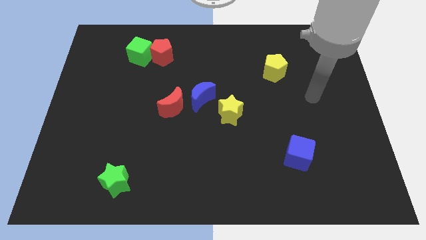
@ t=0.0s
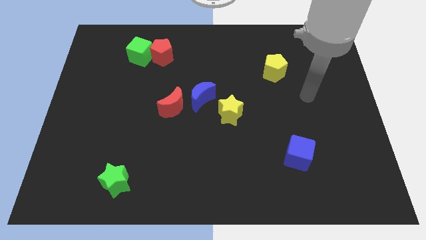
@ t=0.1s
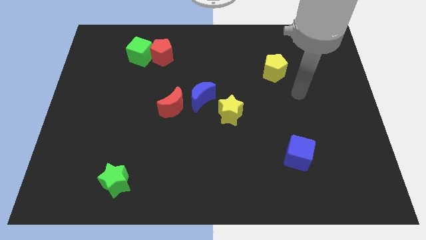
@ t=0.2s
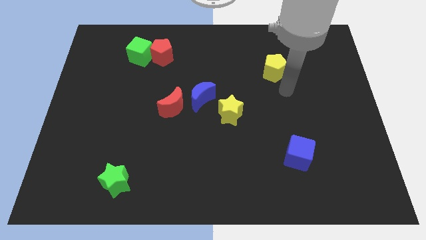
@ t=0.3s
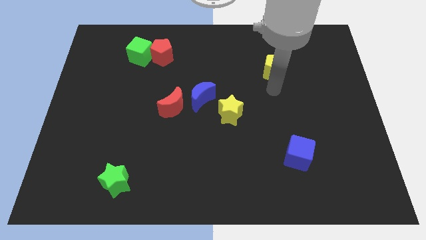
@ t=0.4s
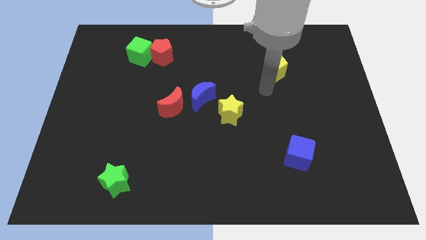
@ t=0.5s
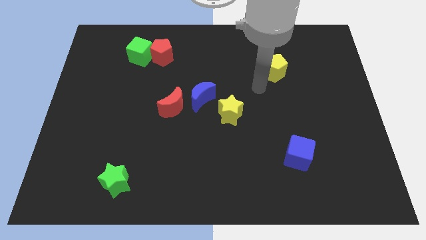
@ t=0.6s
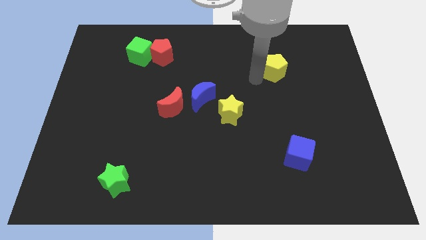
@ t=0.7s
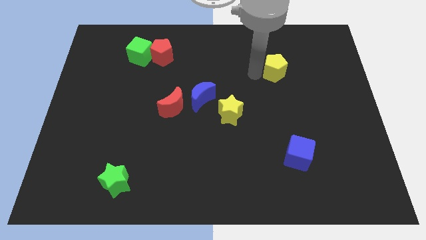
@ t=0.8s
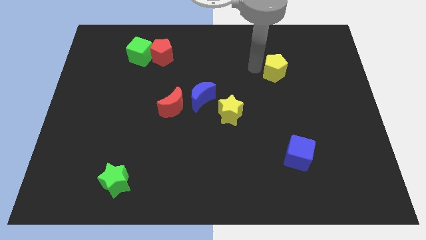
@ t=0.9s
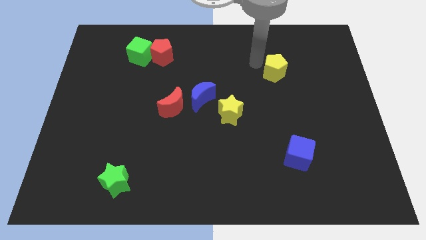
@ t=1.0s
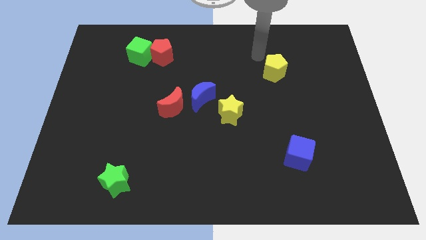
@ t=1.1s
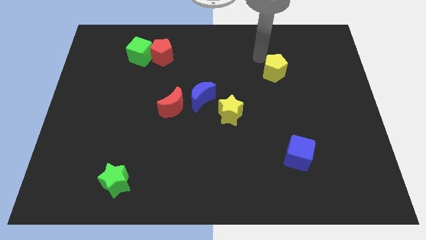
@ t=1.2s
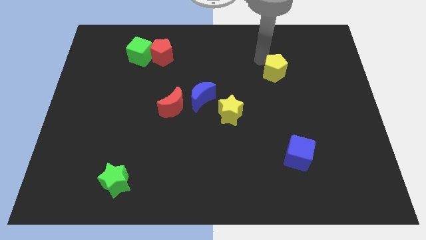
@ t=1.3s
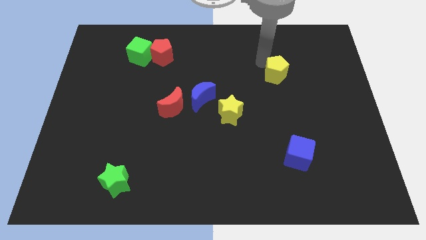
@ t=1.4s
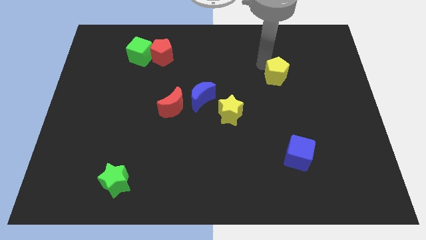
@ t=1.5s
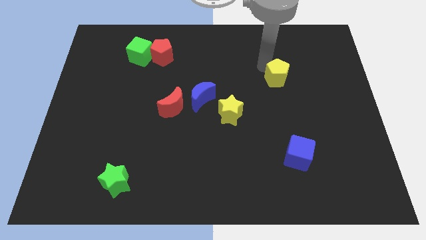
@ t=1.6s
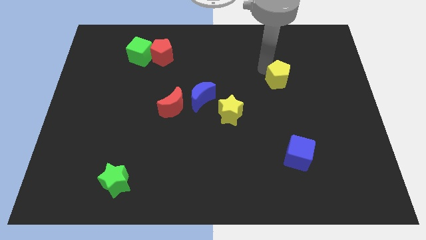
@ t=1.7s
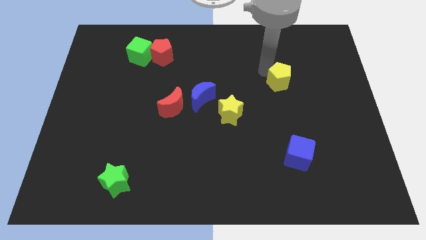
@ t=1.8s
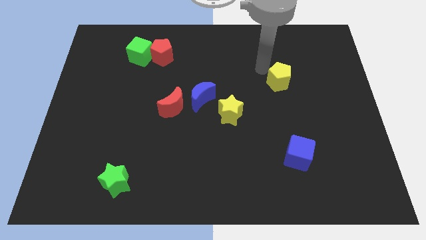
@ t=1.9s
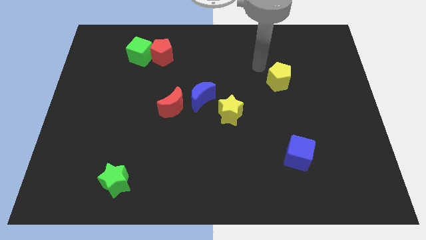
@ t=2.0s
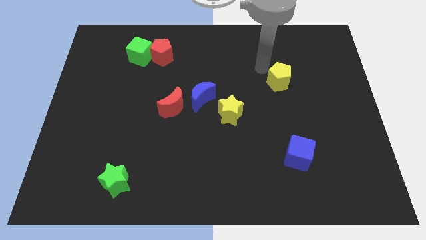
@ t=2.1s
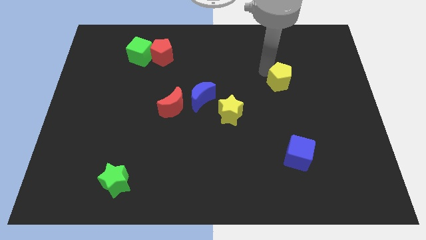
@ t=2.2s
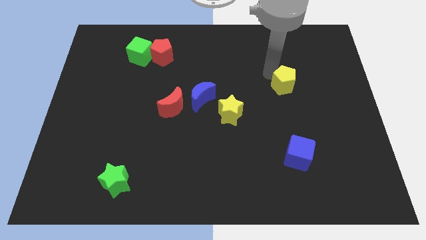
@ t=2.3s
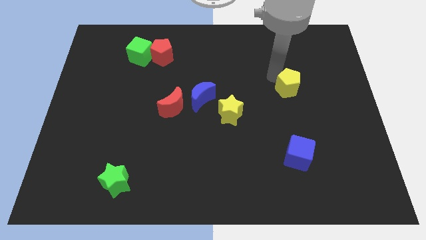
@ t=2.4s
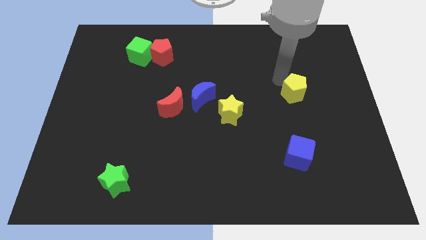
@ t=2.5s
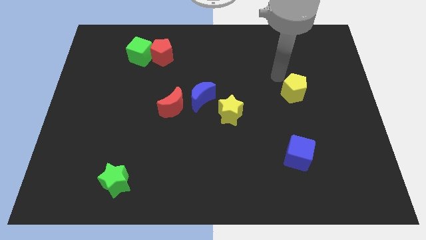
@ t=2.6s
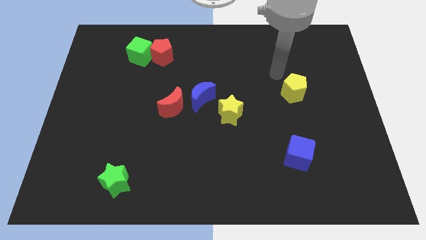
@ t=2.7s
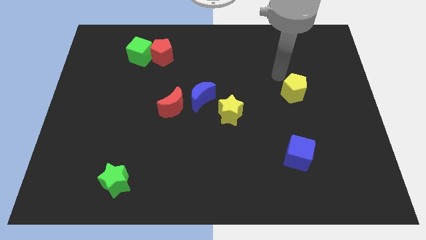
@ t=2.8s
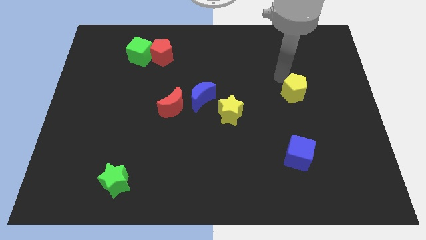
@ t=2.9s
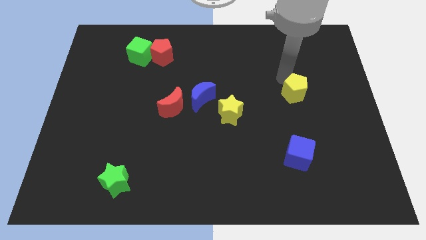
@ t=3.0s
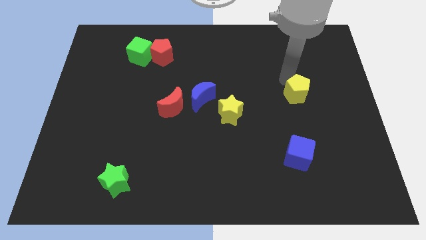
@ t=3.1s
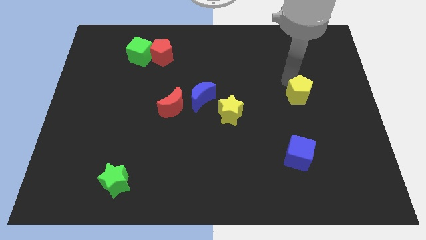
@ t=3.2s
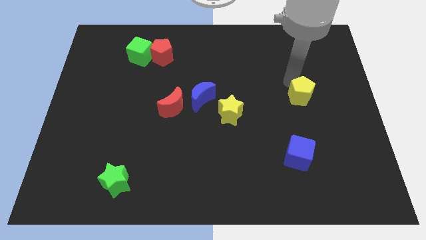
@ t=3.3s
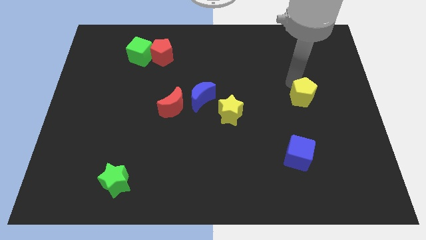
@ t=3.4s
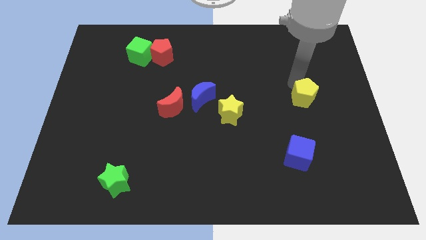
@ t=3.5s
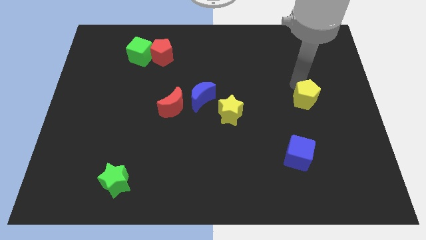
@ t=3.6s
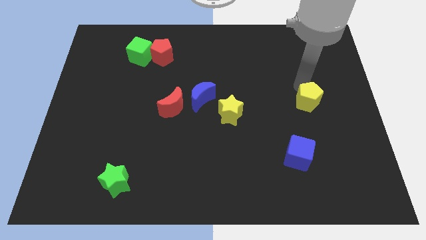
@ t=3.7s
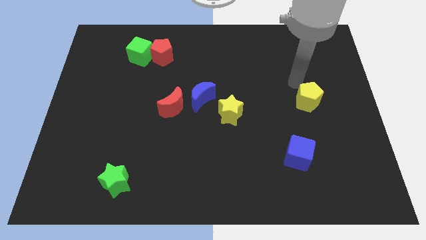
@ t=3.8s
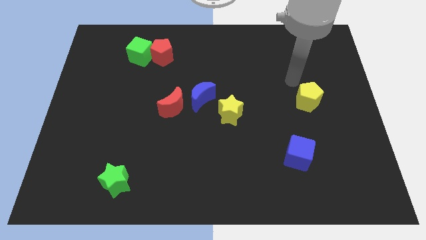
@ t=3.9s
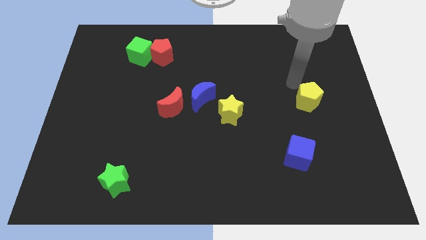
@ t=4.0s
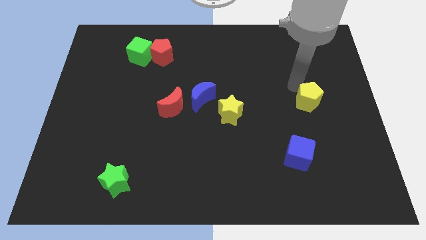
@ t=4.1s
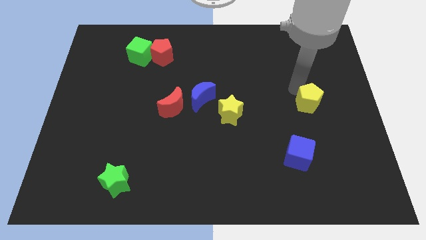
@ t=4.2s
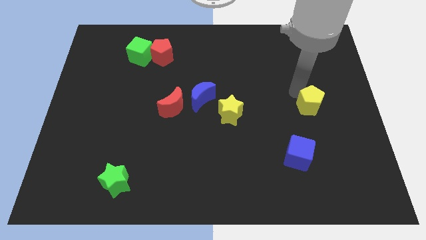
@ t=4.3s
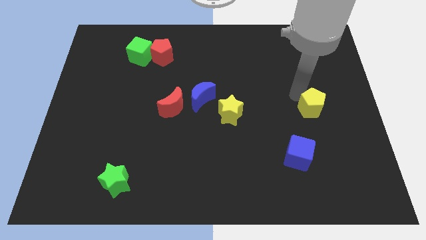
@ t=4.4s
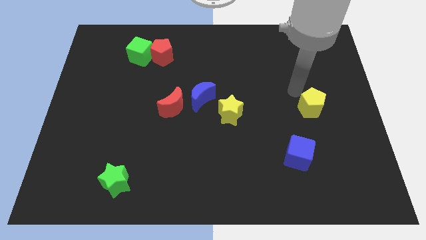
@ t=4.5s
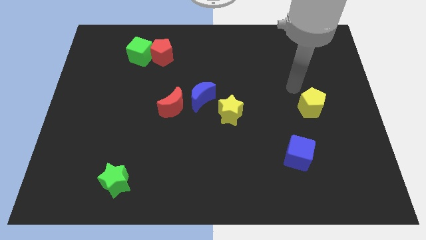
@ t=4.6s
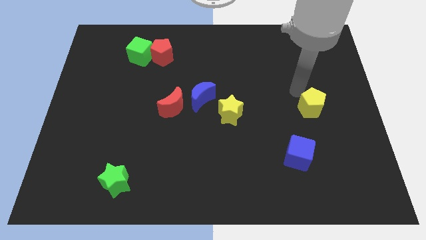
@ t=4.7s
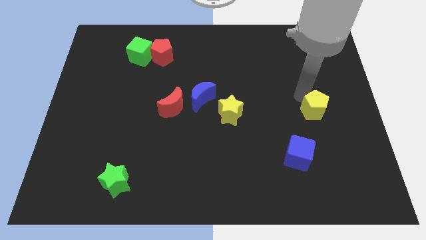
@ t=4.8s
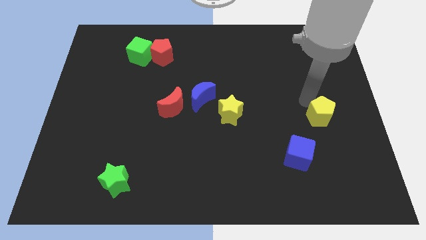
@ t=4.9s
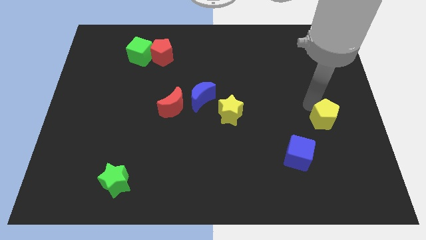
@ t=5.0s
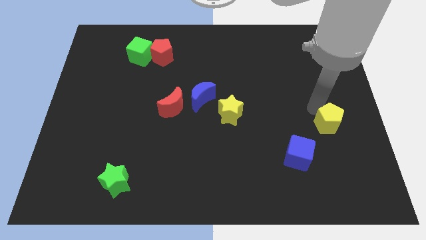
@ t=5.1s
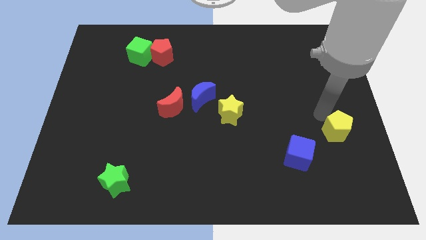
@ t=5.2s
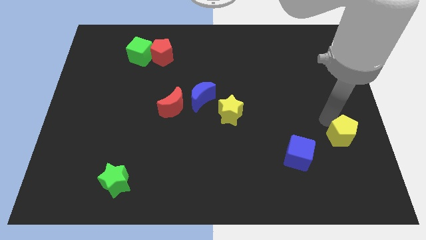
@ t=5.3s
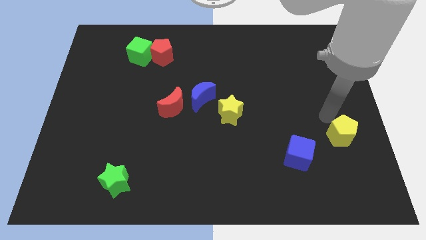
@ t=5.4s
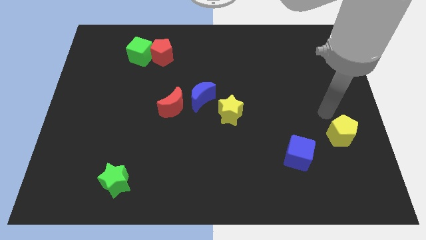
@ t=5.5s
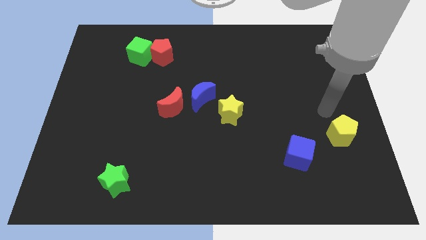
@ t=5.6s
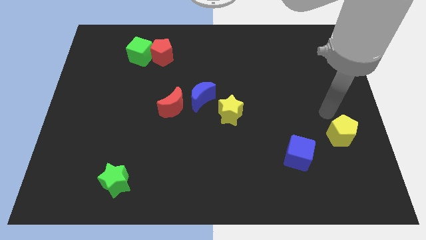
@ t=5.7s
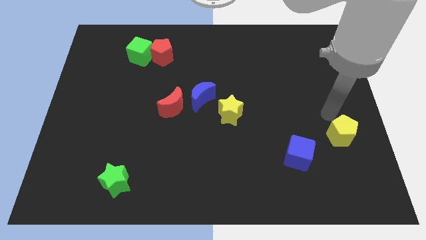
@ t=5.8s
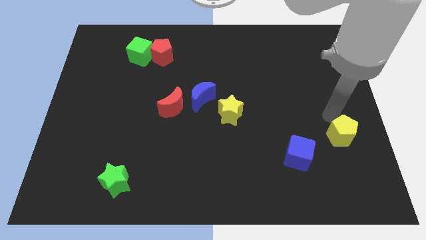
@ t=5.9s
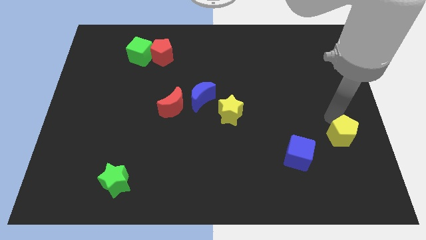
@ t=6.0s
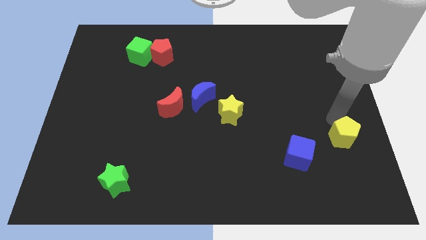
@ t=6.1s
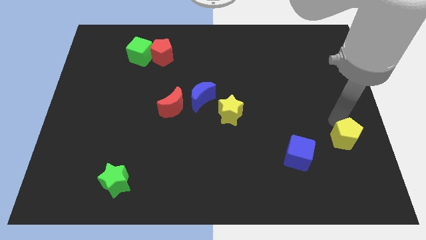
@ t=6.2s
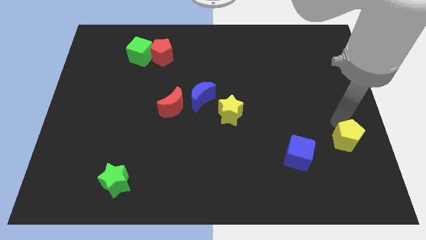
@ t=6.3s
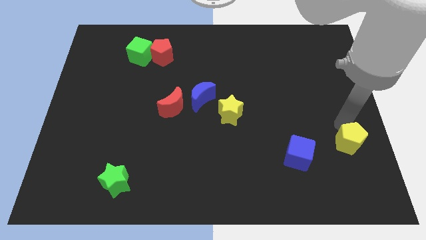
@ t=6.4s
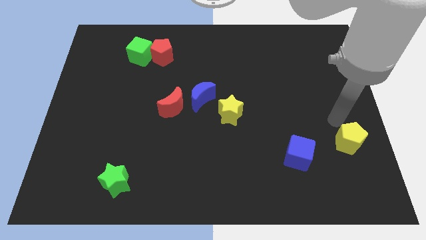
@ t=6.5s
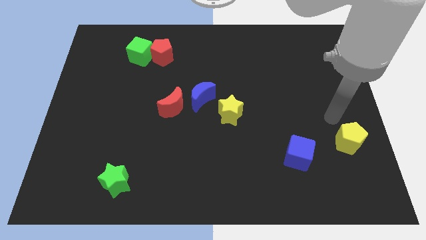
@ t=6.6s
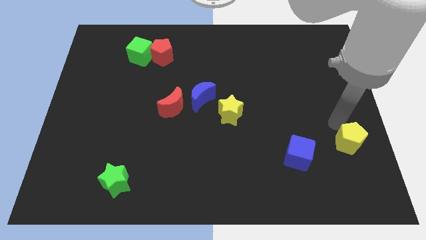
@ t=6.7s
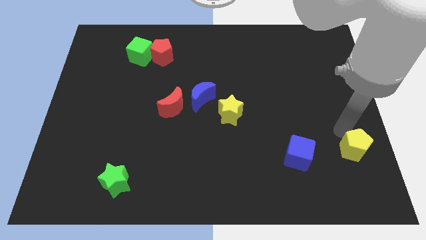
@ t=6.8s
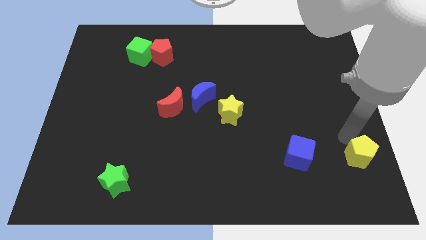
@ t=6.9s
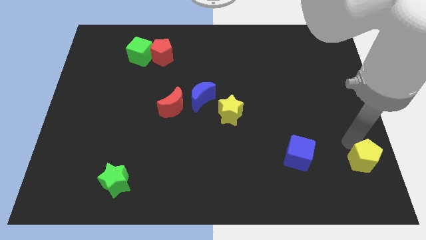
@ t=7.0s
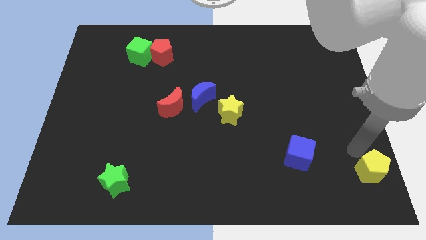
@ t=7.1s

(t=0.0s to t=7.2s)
move the yellow pentagon to the lower right corner
